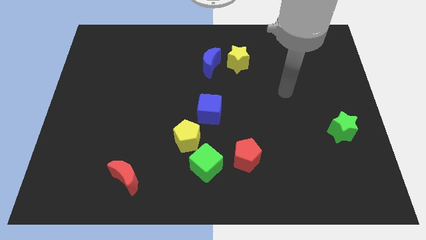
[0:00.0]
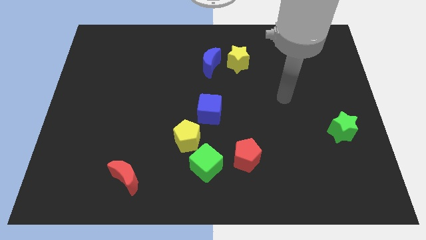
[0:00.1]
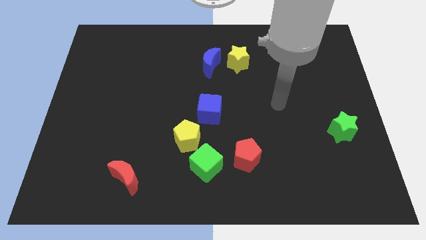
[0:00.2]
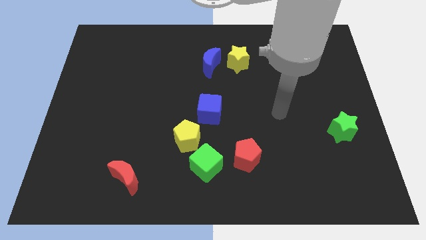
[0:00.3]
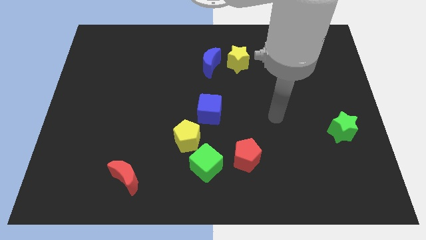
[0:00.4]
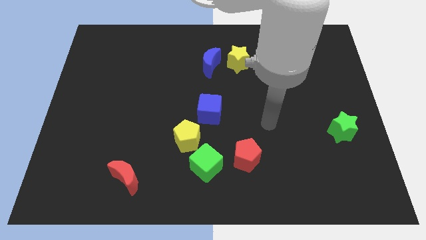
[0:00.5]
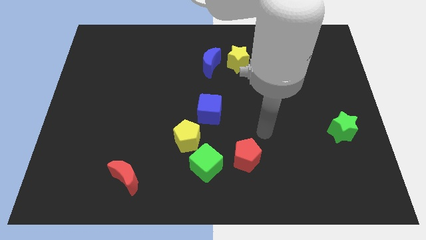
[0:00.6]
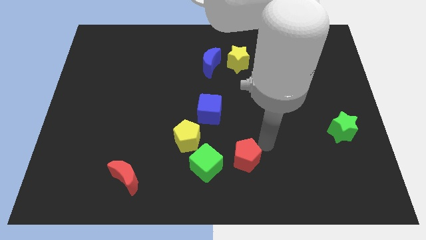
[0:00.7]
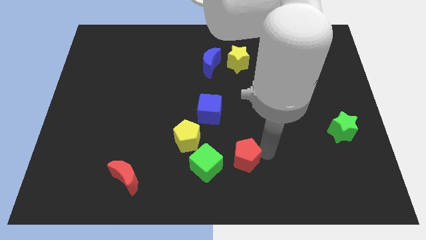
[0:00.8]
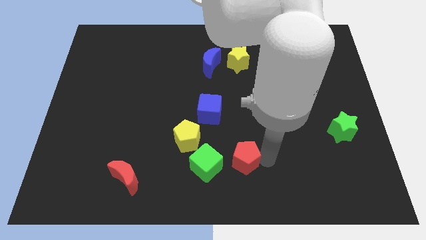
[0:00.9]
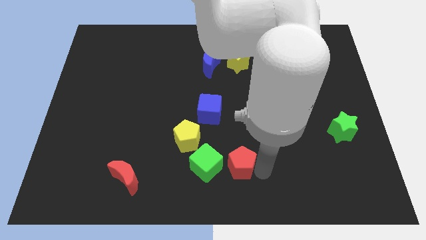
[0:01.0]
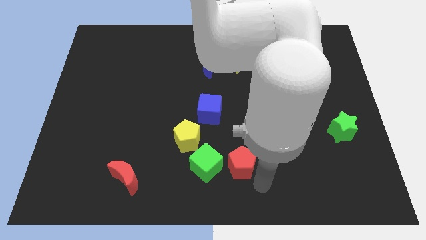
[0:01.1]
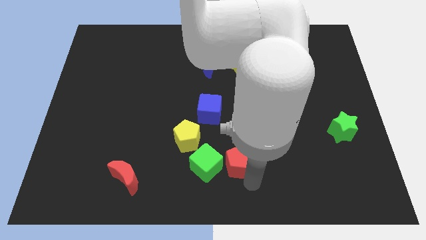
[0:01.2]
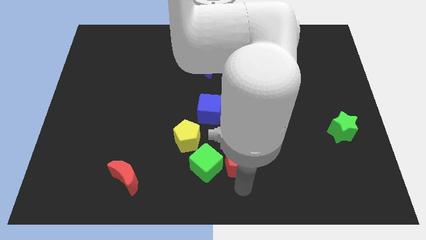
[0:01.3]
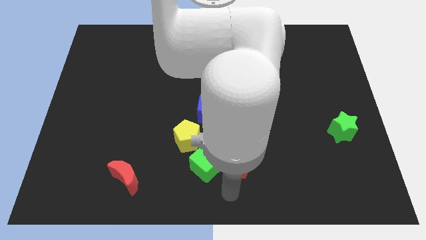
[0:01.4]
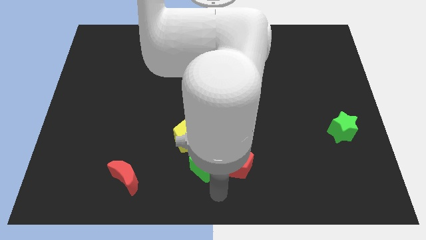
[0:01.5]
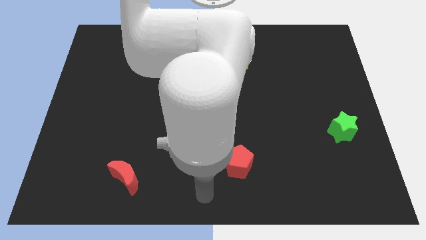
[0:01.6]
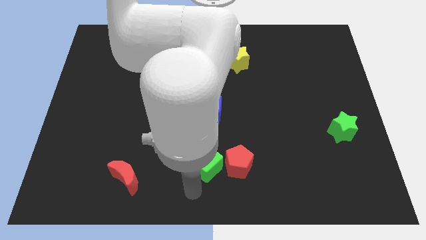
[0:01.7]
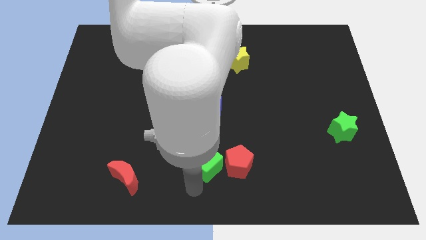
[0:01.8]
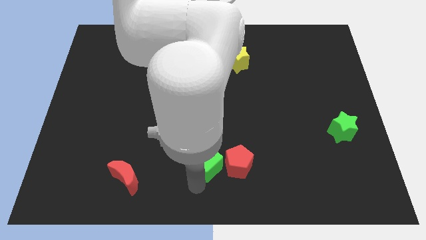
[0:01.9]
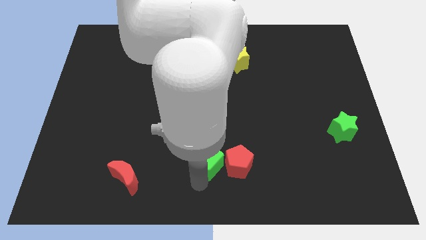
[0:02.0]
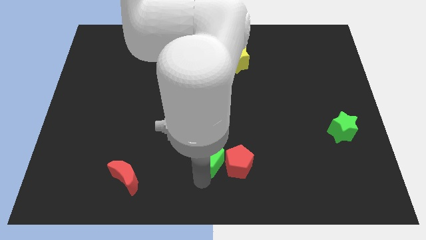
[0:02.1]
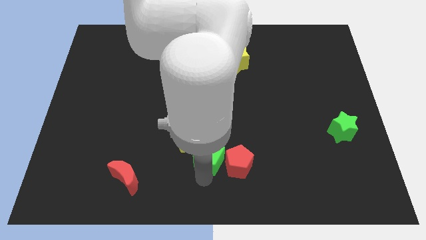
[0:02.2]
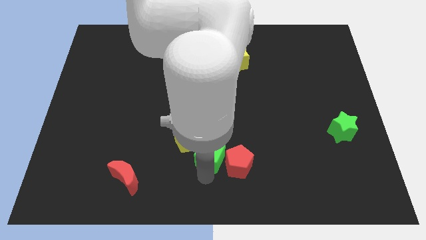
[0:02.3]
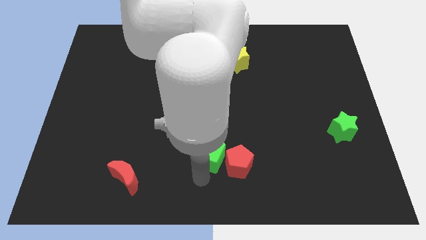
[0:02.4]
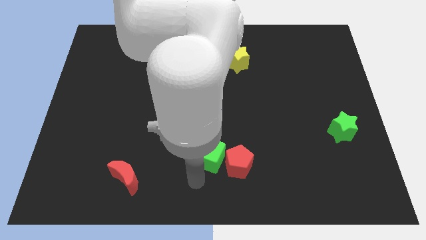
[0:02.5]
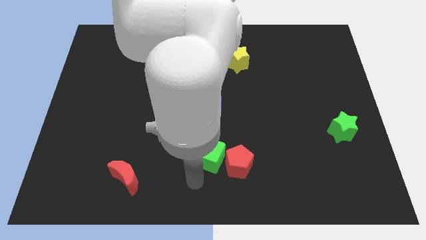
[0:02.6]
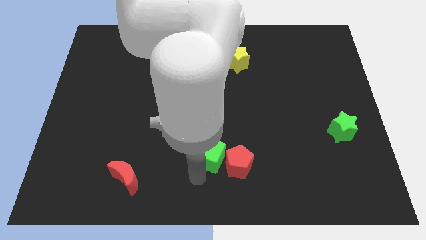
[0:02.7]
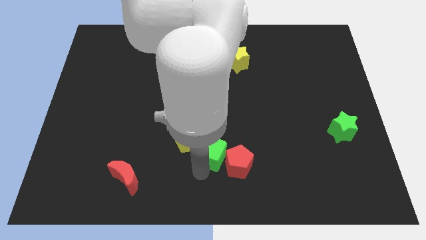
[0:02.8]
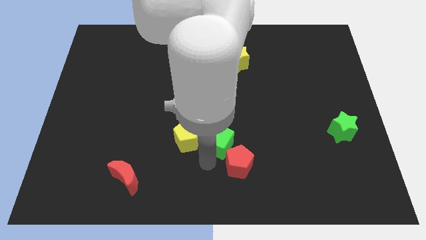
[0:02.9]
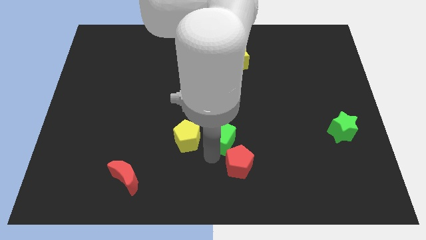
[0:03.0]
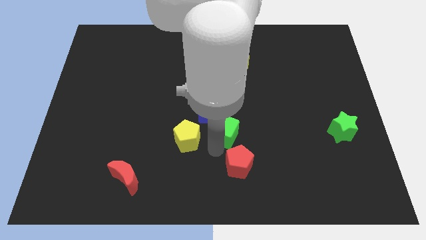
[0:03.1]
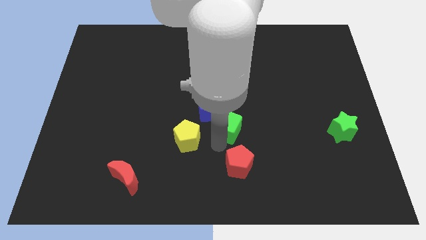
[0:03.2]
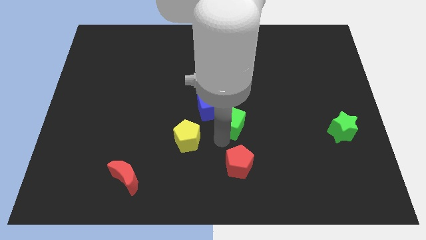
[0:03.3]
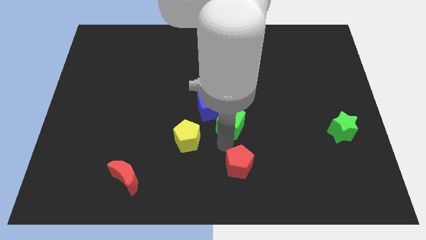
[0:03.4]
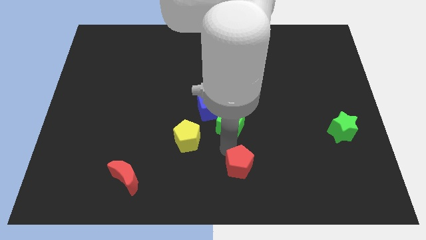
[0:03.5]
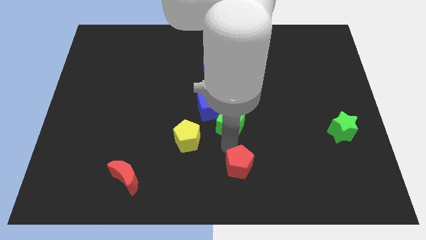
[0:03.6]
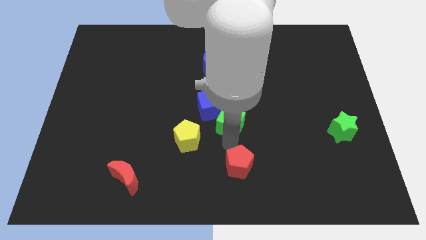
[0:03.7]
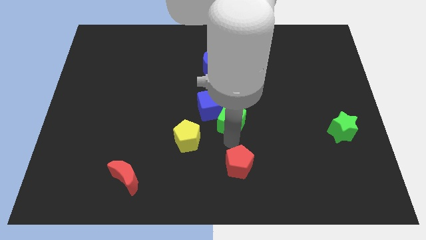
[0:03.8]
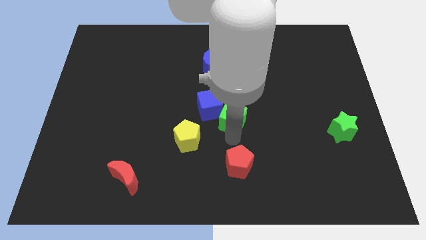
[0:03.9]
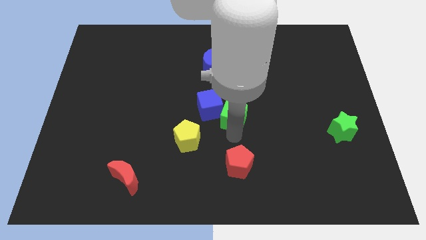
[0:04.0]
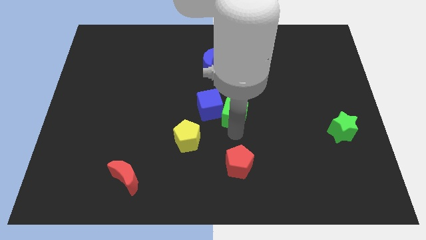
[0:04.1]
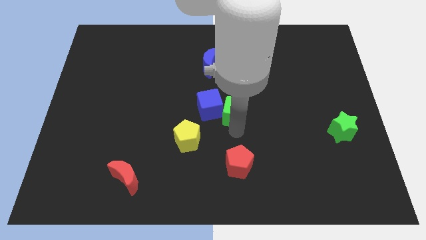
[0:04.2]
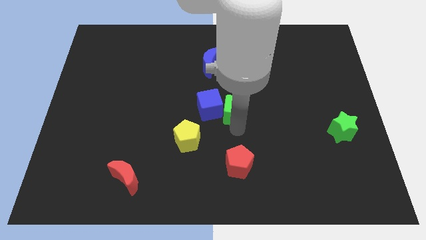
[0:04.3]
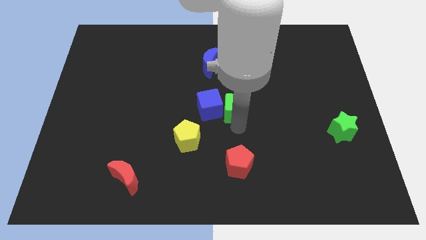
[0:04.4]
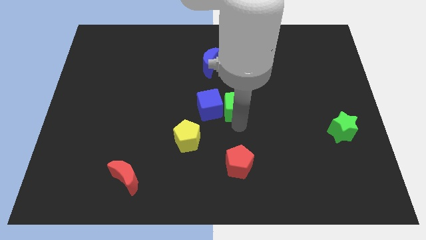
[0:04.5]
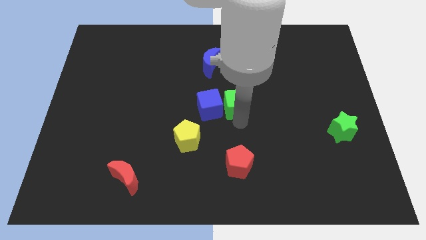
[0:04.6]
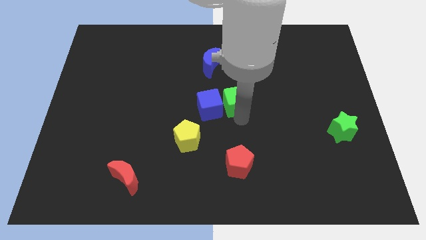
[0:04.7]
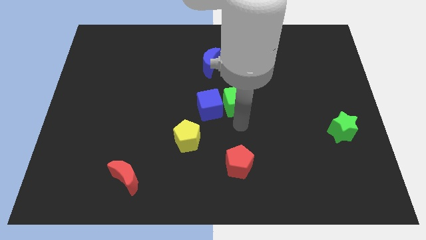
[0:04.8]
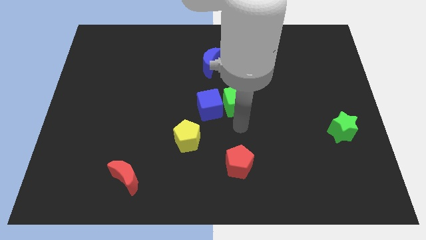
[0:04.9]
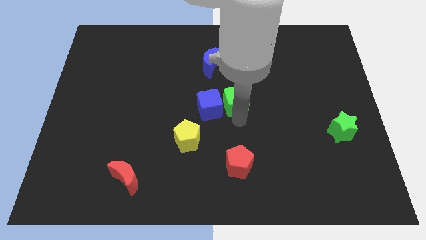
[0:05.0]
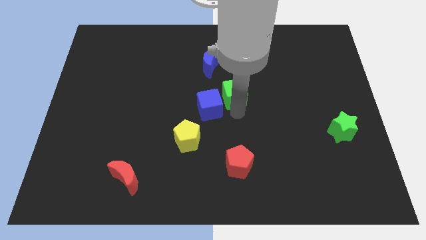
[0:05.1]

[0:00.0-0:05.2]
move the green cube diagonally down and to the right of the blue moon

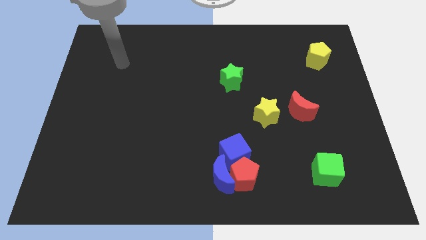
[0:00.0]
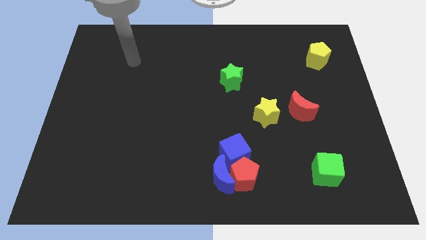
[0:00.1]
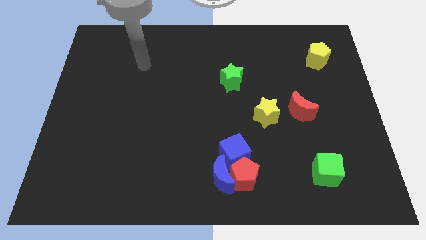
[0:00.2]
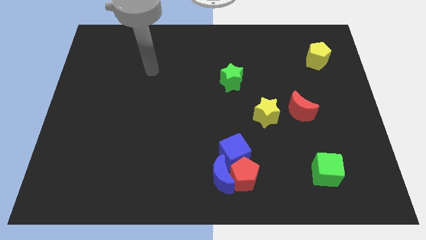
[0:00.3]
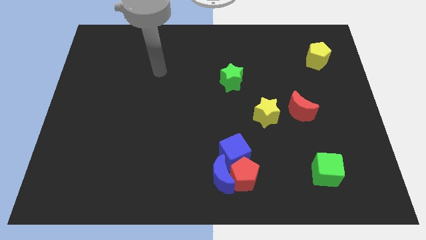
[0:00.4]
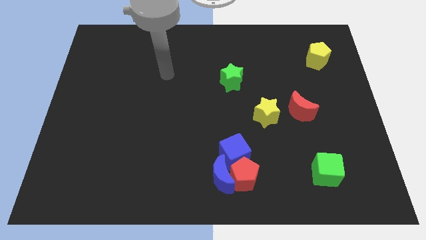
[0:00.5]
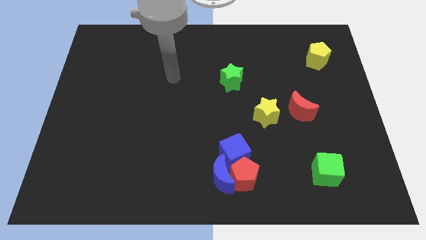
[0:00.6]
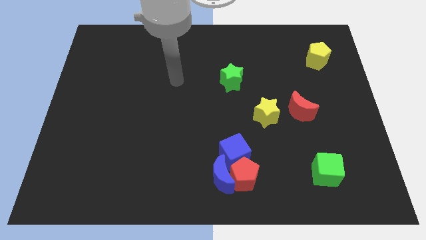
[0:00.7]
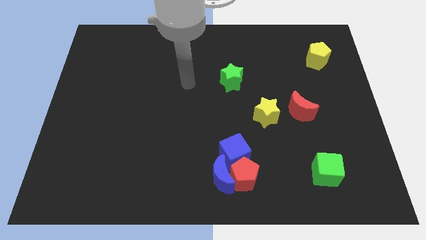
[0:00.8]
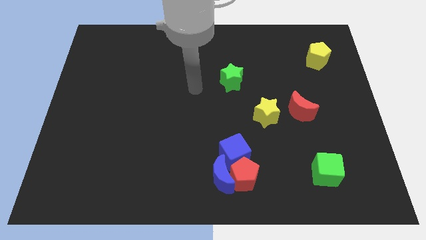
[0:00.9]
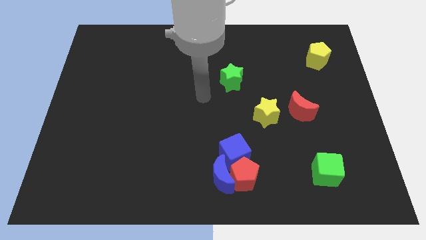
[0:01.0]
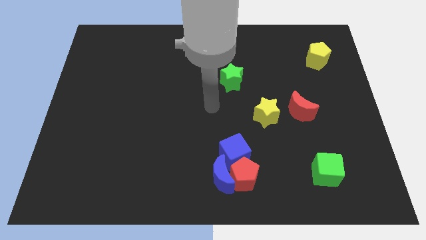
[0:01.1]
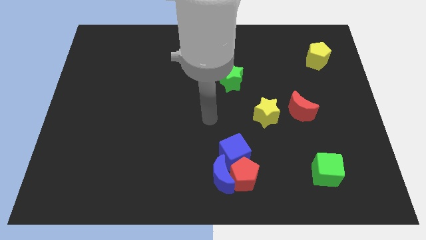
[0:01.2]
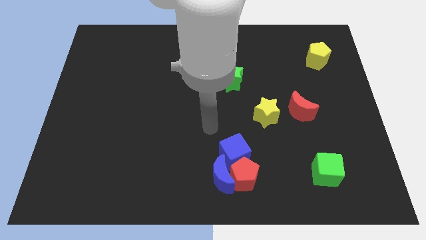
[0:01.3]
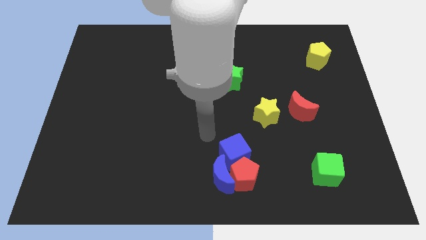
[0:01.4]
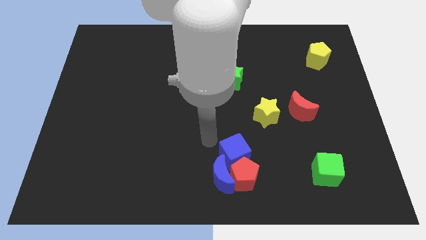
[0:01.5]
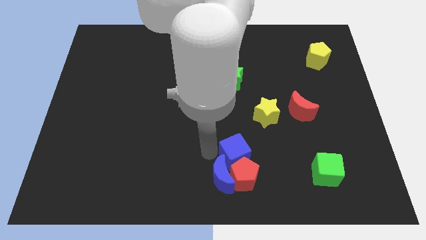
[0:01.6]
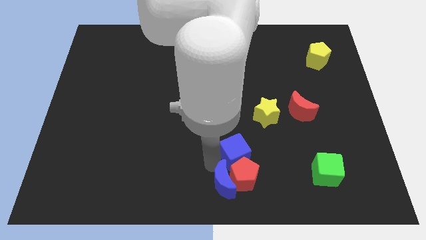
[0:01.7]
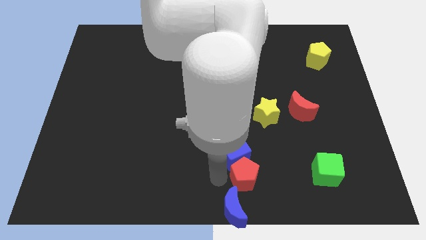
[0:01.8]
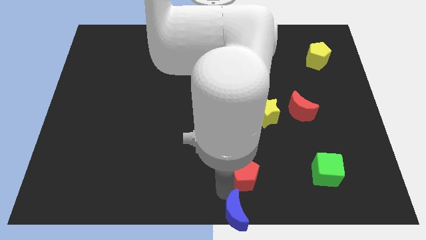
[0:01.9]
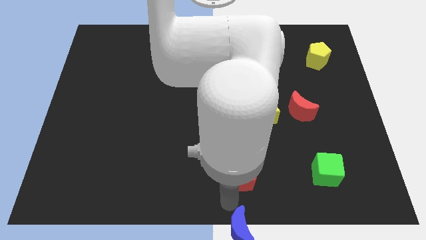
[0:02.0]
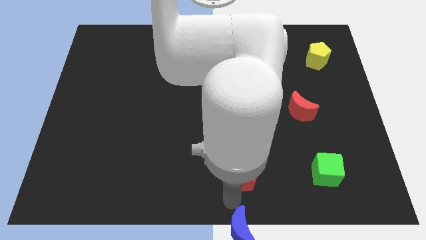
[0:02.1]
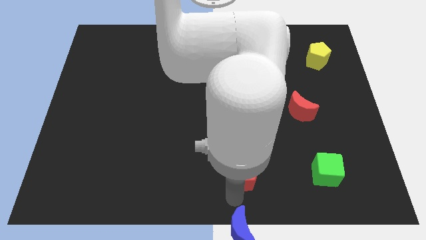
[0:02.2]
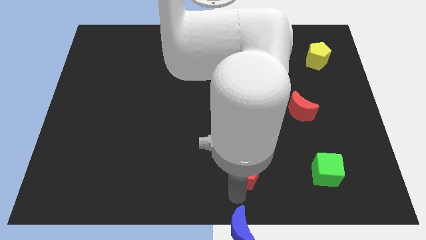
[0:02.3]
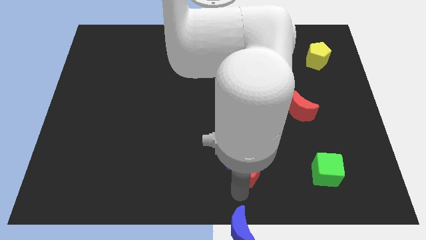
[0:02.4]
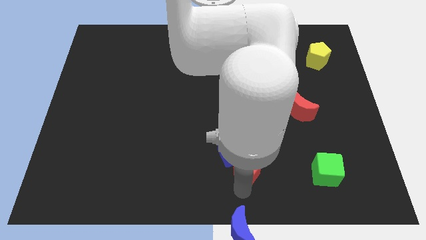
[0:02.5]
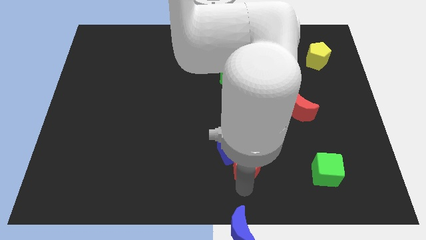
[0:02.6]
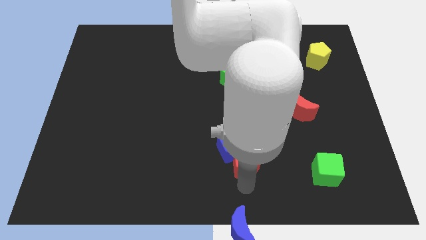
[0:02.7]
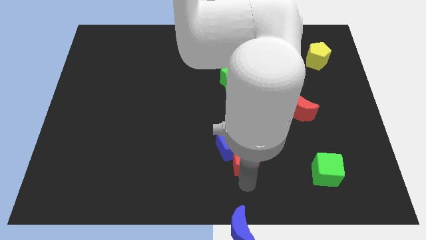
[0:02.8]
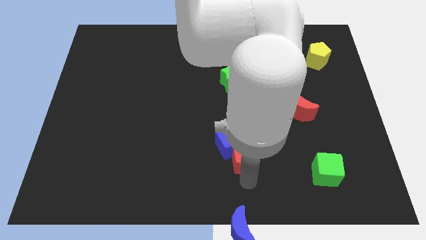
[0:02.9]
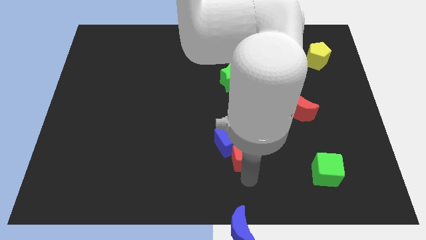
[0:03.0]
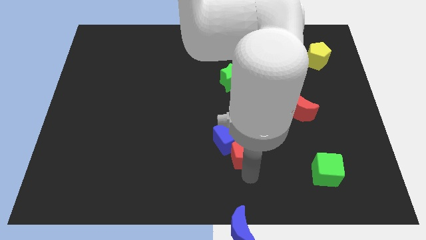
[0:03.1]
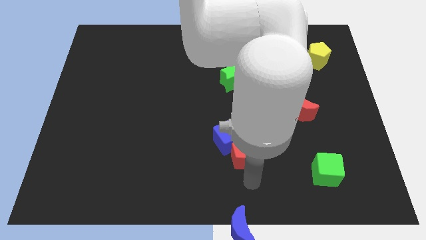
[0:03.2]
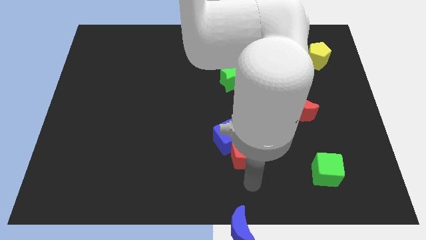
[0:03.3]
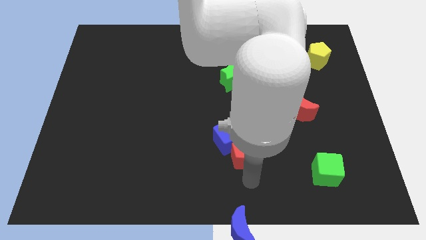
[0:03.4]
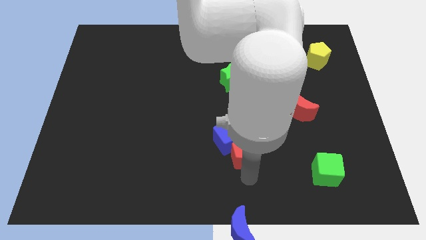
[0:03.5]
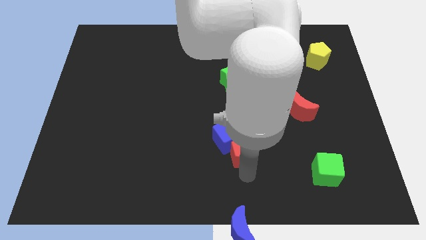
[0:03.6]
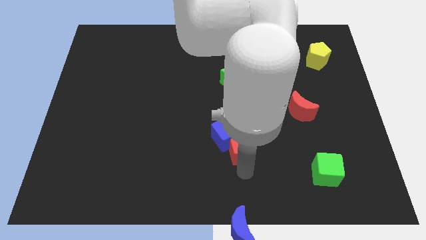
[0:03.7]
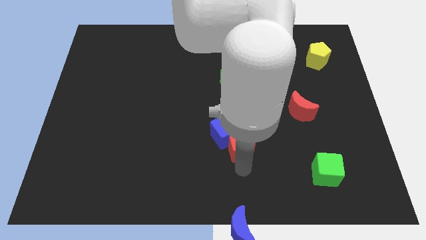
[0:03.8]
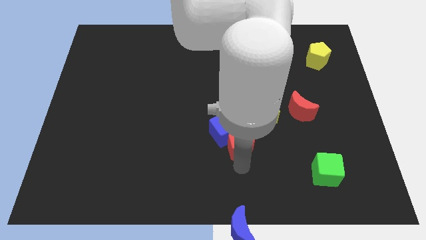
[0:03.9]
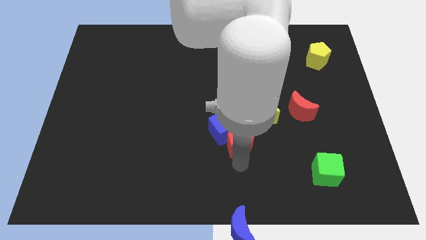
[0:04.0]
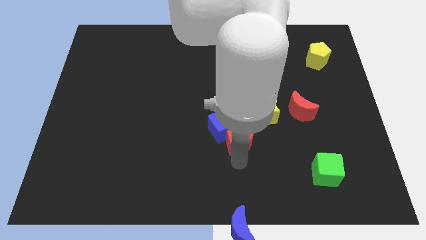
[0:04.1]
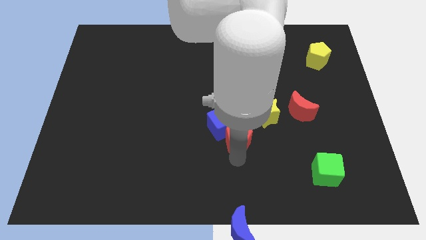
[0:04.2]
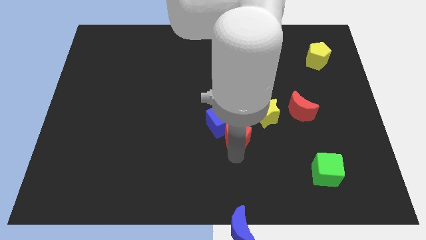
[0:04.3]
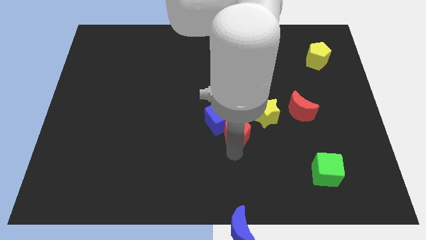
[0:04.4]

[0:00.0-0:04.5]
put the red pentagon to the bottom of the green star
